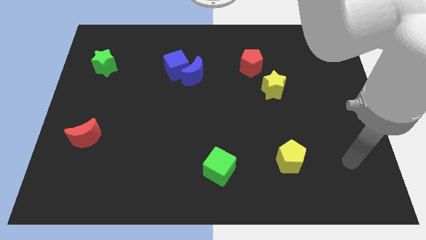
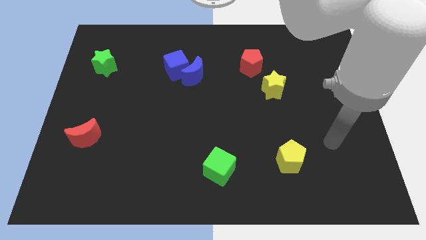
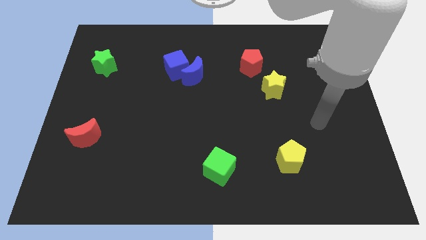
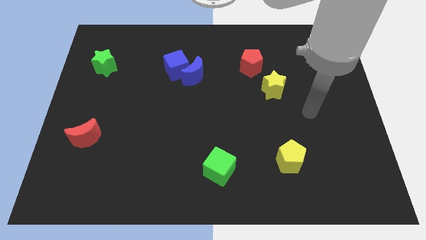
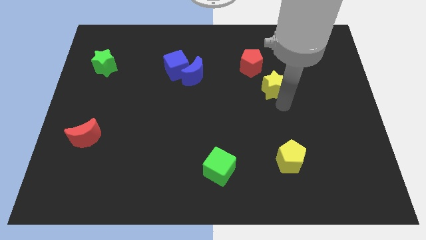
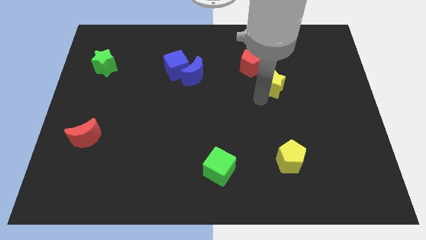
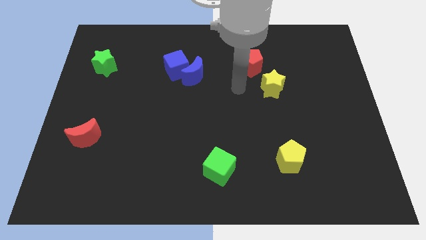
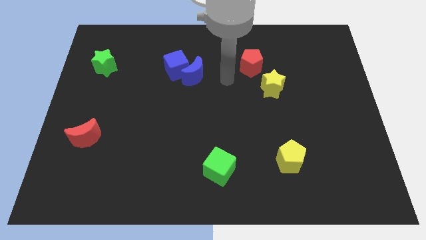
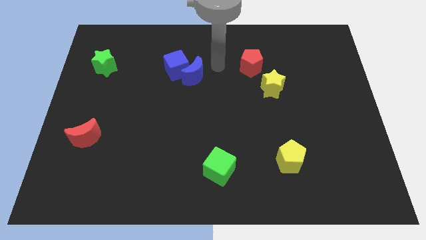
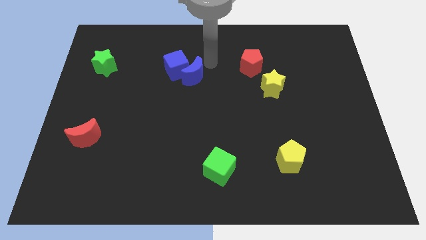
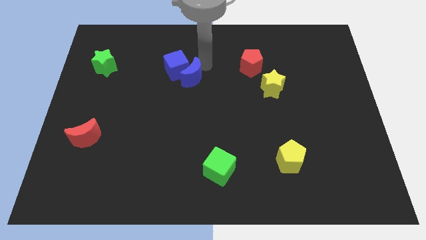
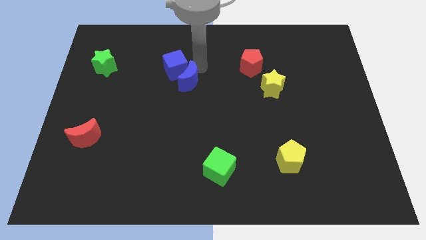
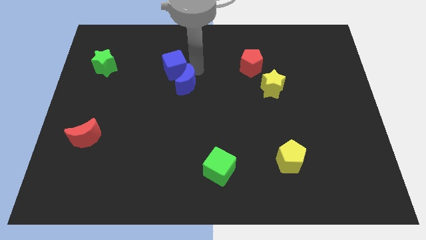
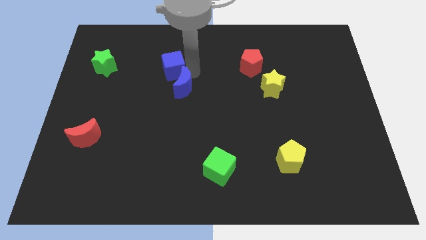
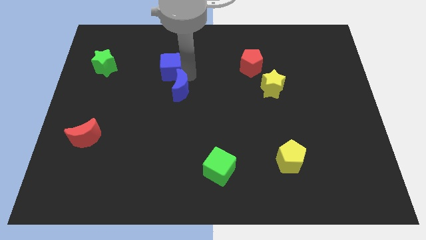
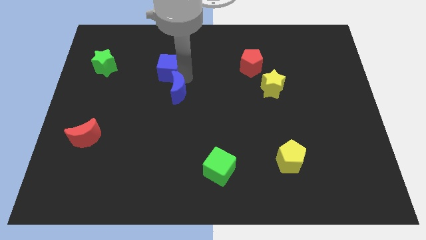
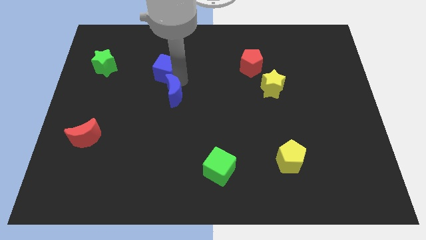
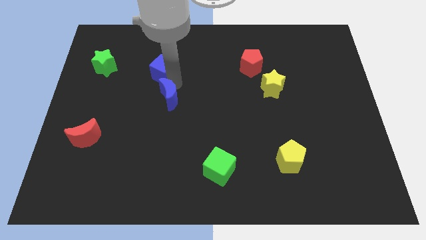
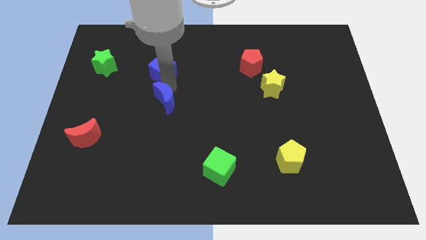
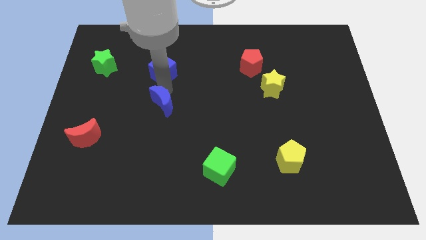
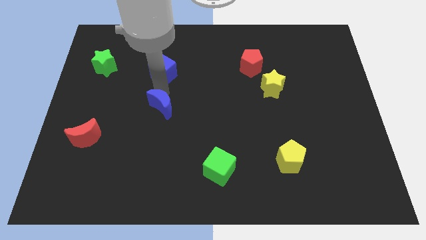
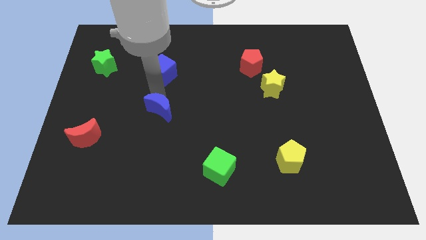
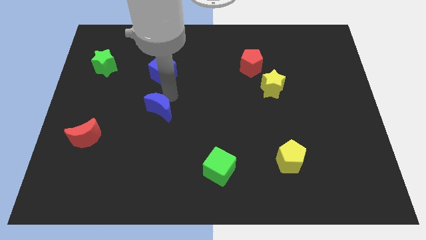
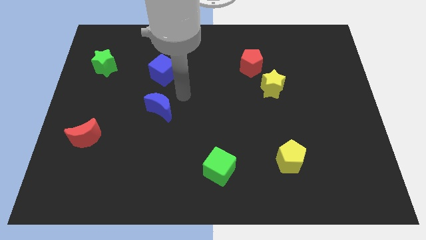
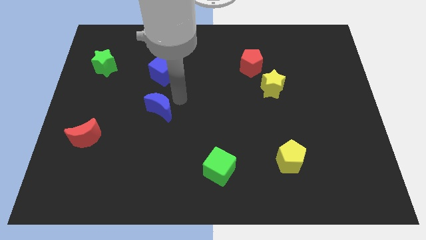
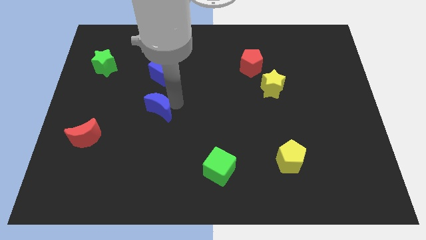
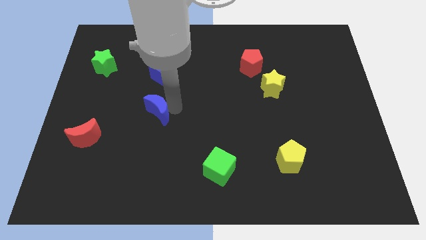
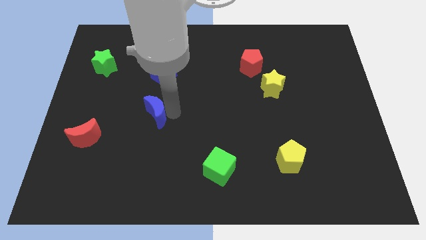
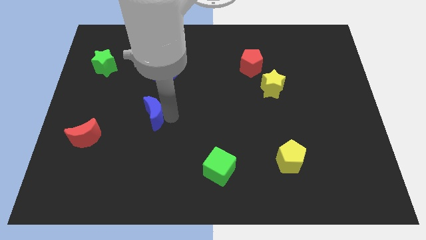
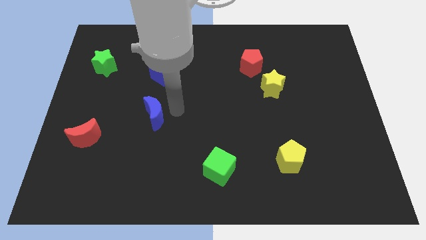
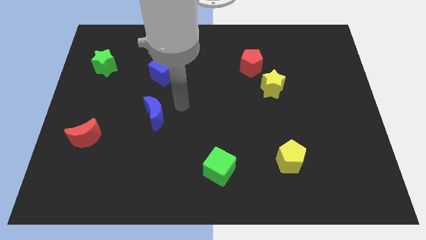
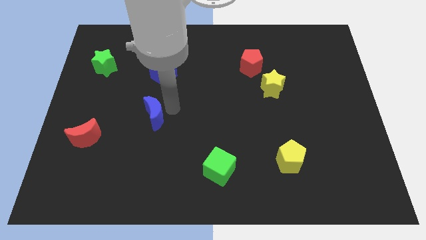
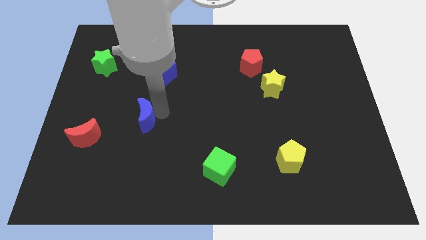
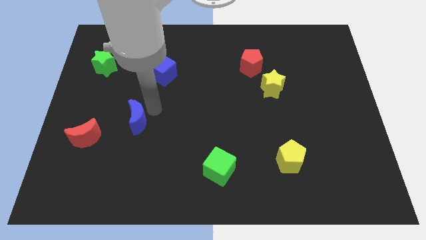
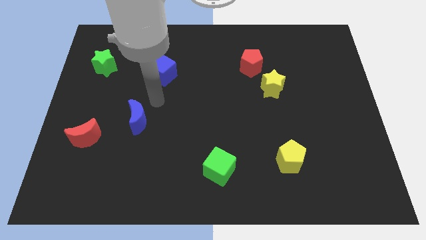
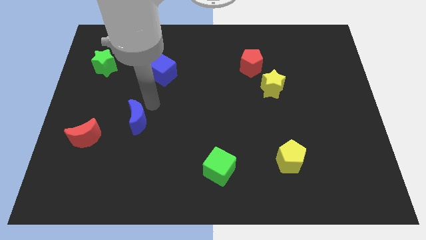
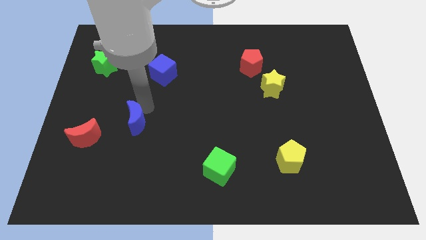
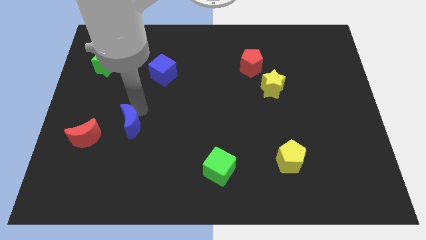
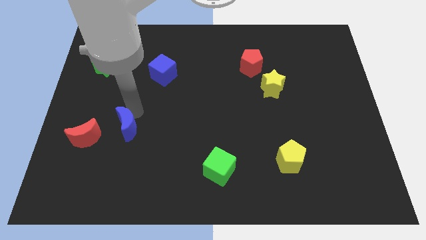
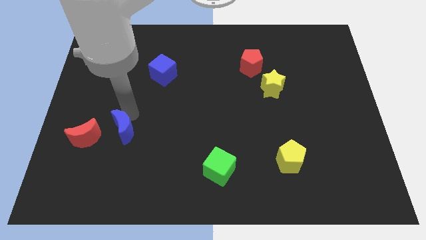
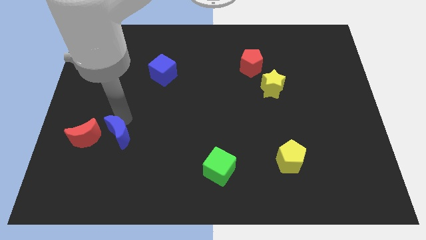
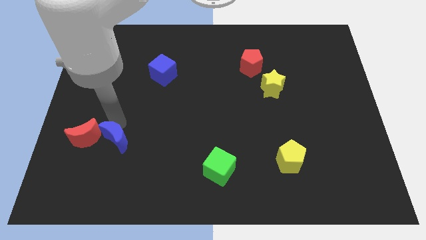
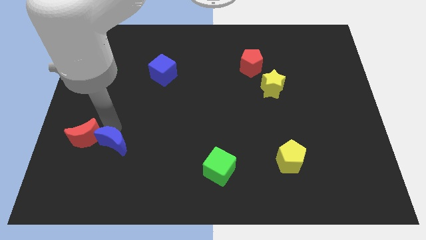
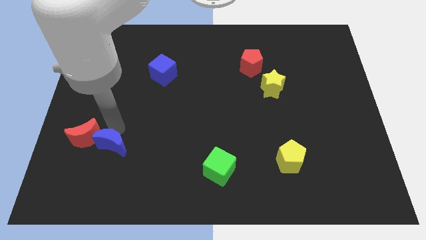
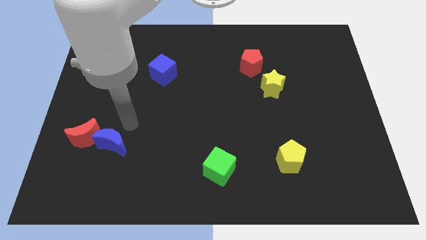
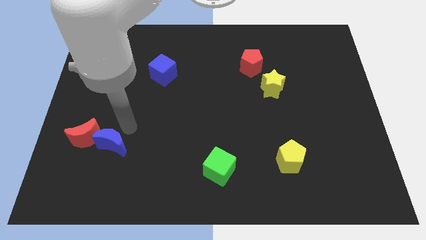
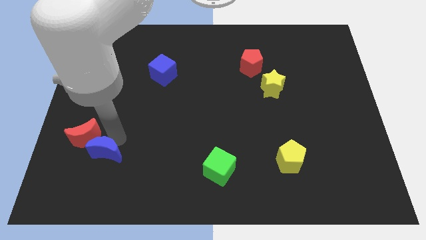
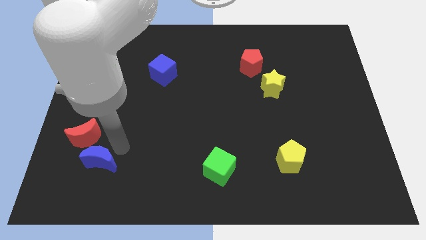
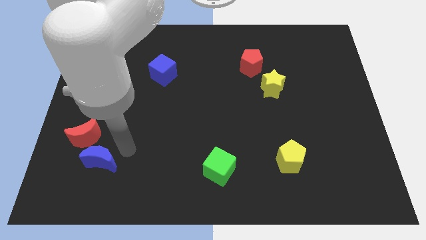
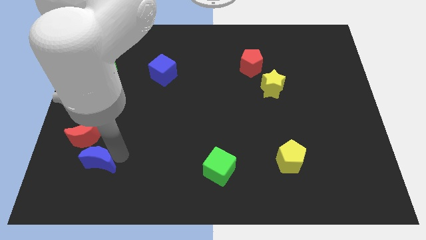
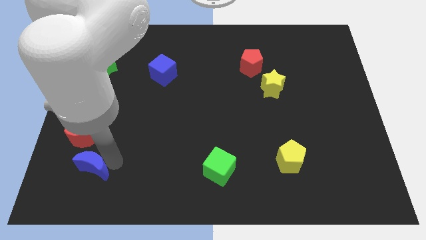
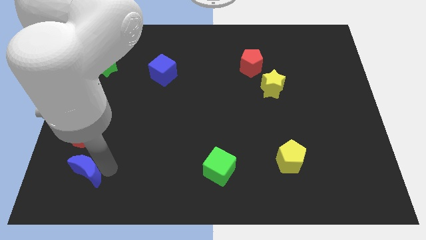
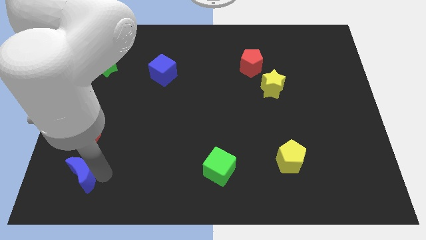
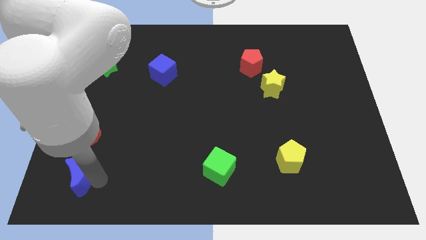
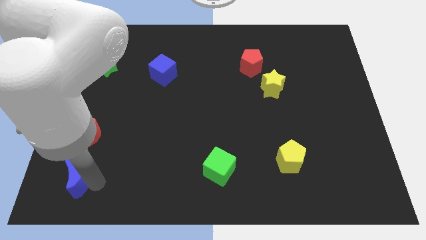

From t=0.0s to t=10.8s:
push the blue moon to the bottom left
